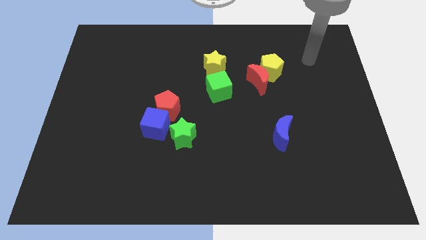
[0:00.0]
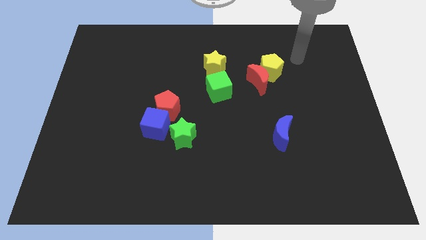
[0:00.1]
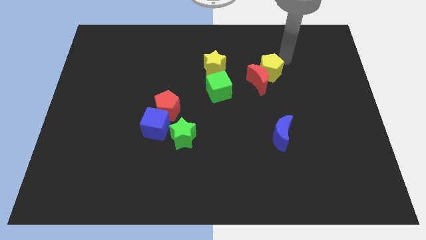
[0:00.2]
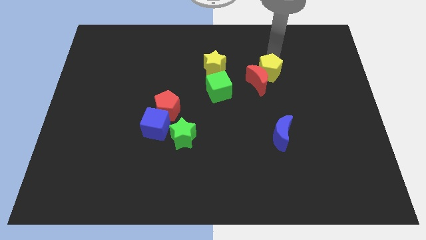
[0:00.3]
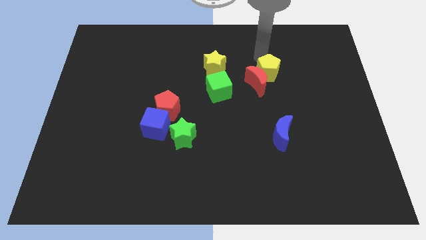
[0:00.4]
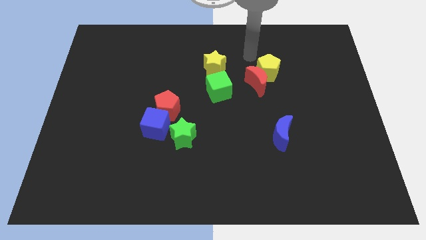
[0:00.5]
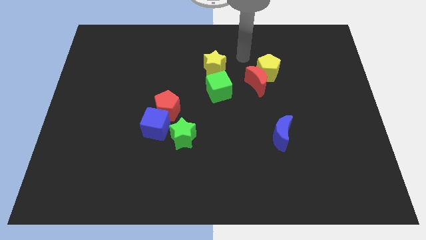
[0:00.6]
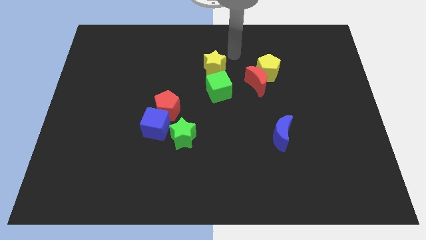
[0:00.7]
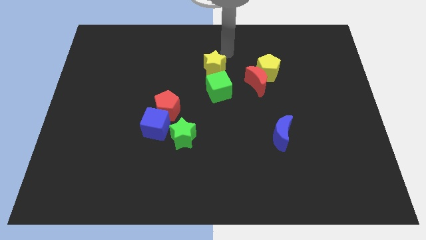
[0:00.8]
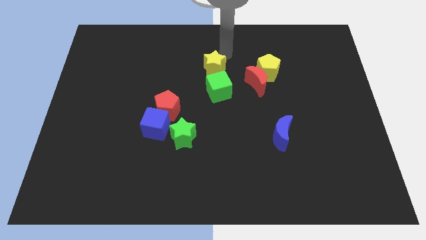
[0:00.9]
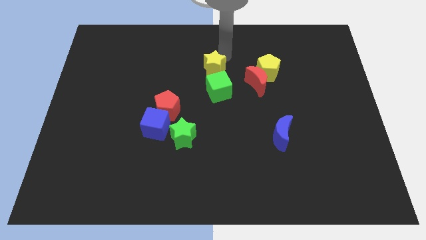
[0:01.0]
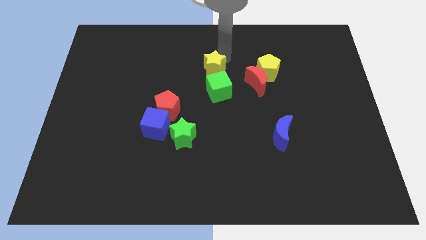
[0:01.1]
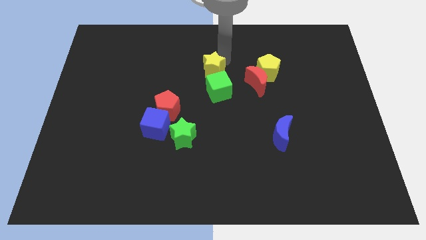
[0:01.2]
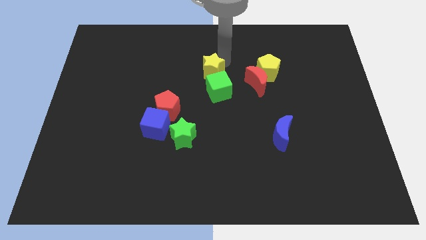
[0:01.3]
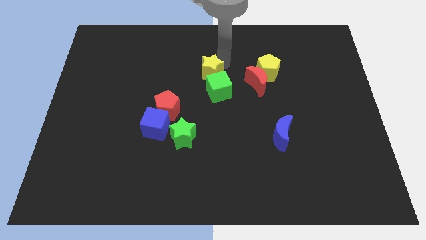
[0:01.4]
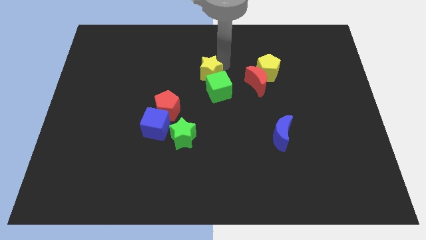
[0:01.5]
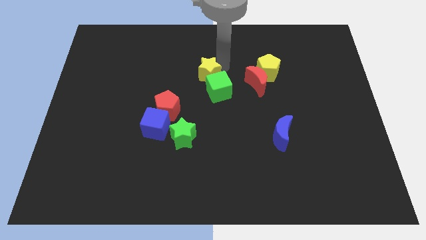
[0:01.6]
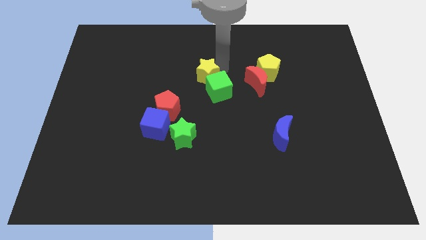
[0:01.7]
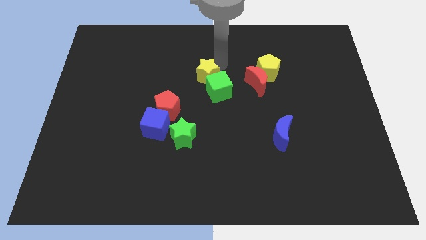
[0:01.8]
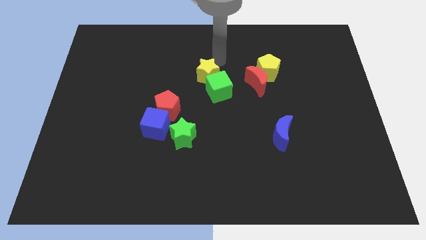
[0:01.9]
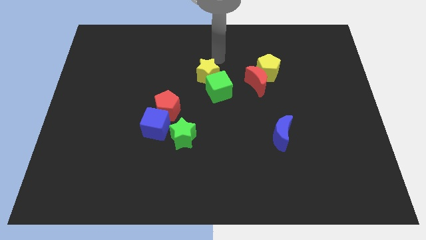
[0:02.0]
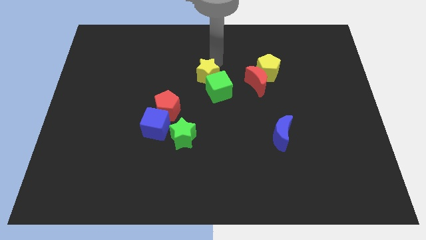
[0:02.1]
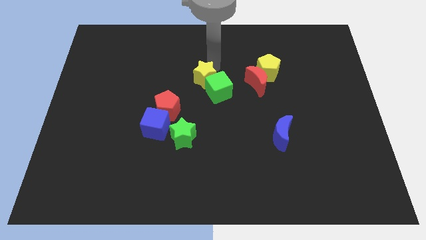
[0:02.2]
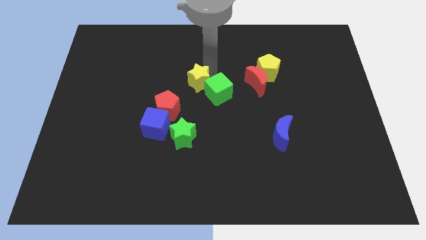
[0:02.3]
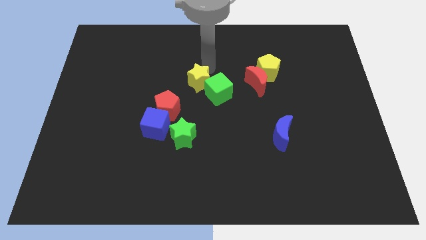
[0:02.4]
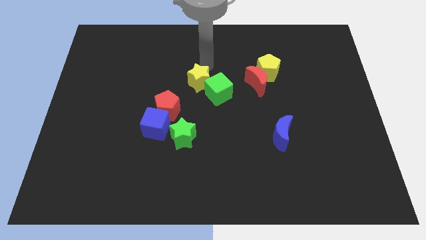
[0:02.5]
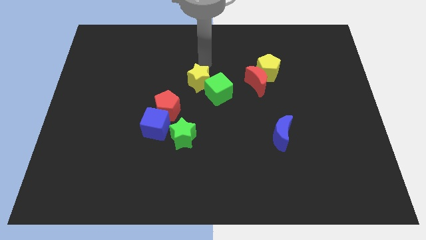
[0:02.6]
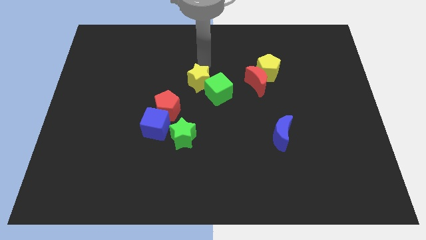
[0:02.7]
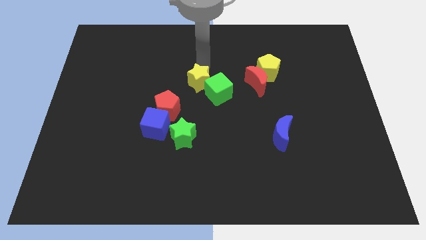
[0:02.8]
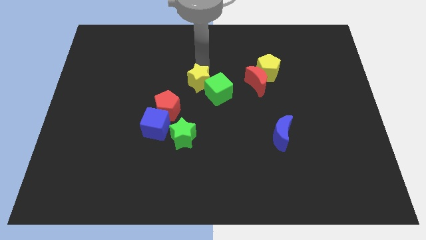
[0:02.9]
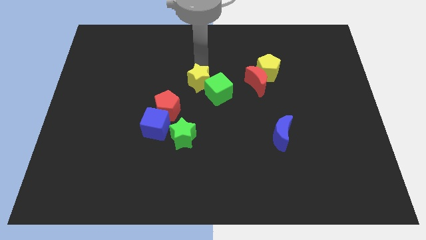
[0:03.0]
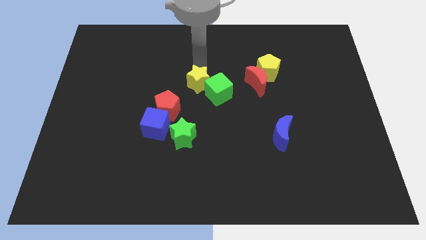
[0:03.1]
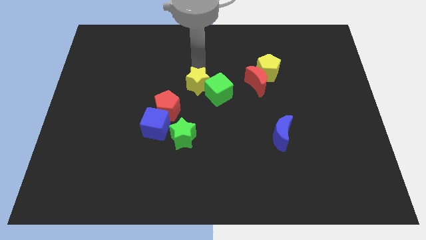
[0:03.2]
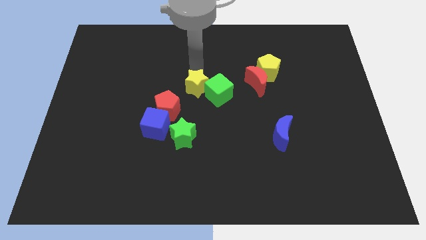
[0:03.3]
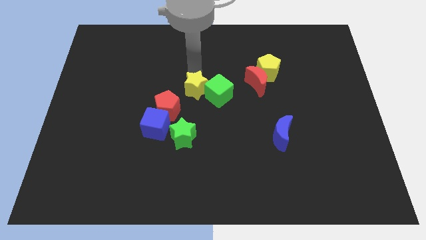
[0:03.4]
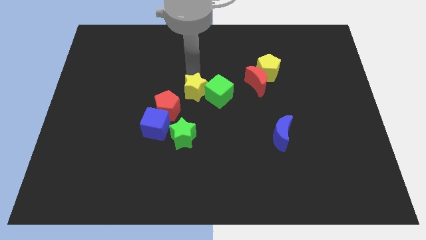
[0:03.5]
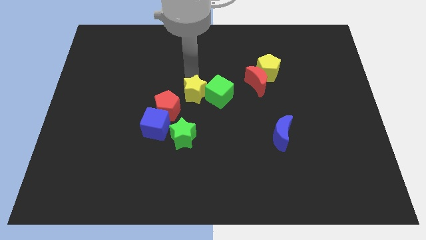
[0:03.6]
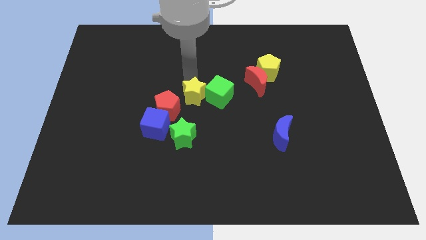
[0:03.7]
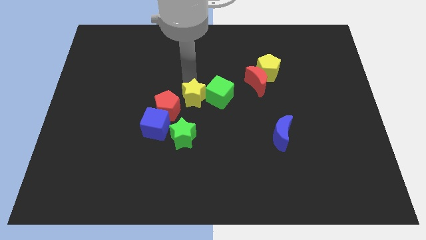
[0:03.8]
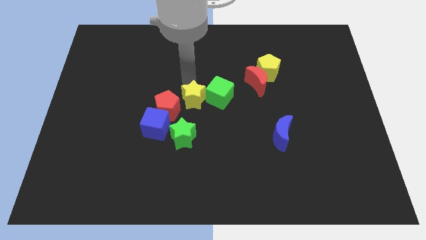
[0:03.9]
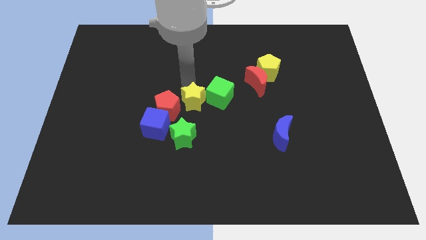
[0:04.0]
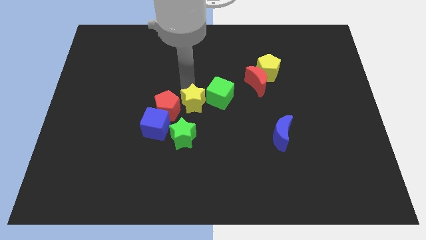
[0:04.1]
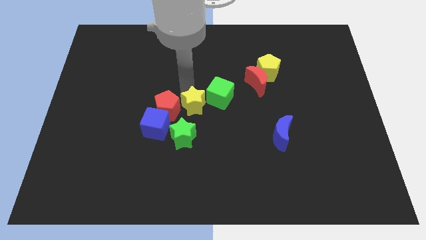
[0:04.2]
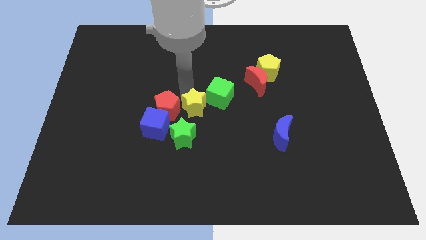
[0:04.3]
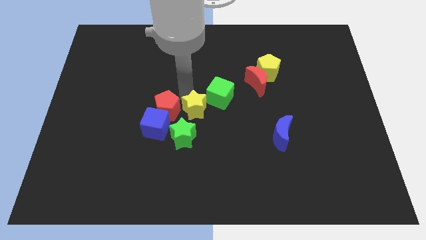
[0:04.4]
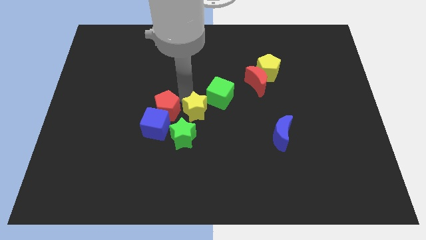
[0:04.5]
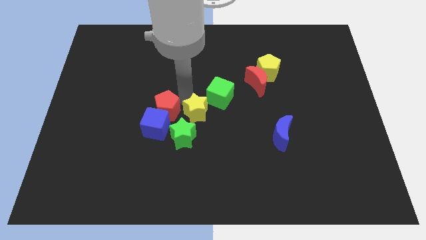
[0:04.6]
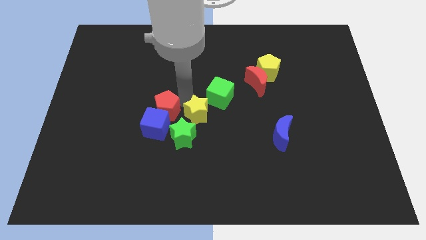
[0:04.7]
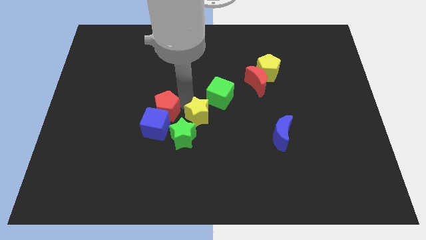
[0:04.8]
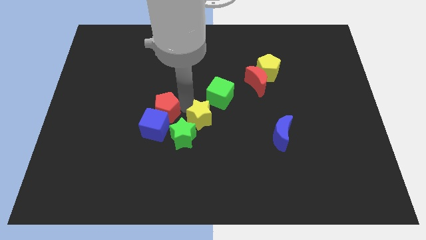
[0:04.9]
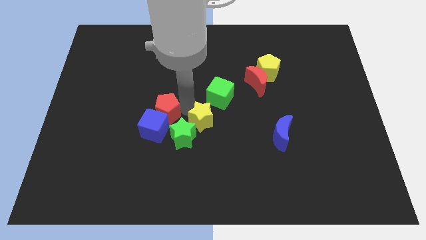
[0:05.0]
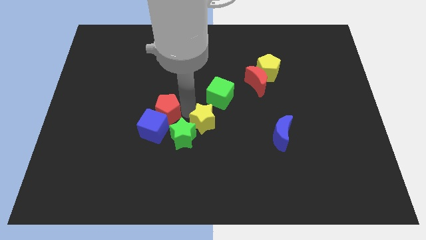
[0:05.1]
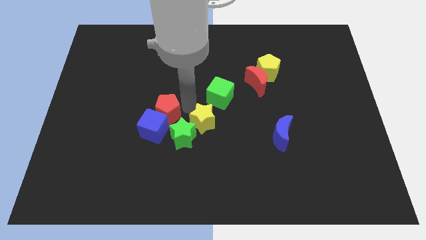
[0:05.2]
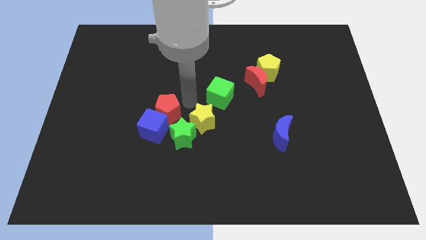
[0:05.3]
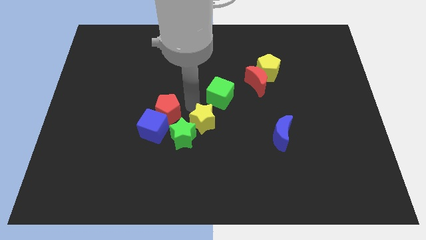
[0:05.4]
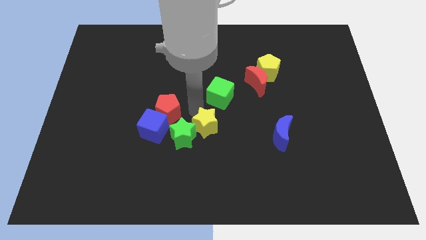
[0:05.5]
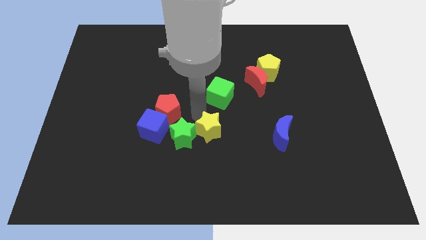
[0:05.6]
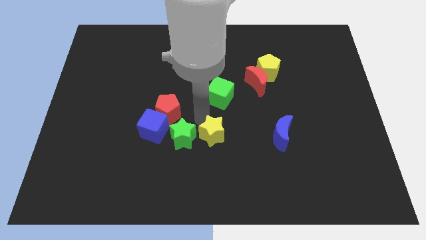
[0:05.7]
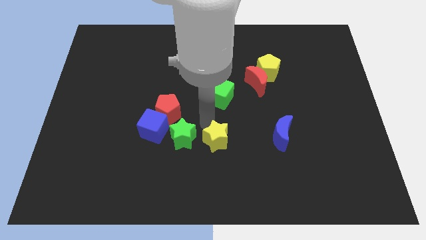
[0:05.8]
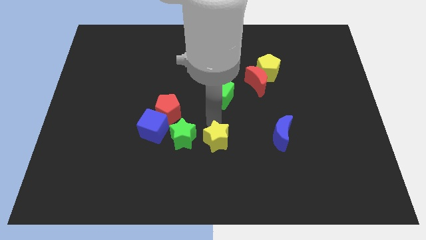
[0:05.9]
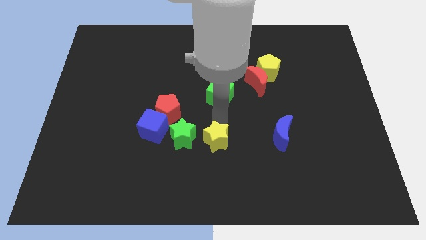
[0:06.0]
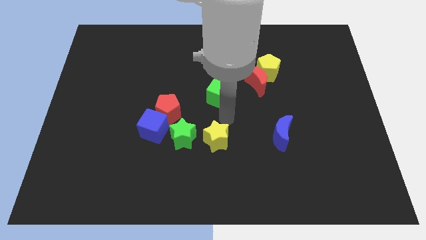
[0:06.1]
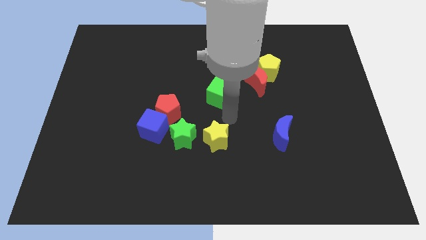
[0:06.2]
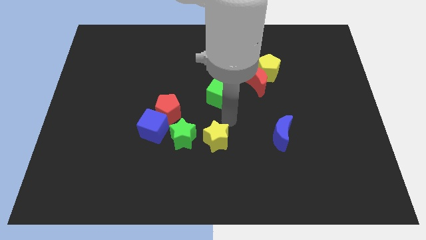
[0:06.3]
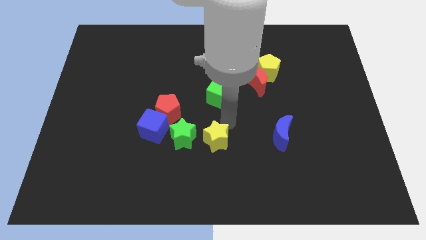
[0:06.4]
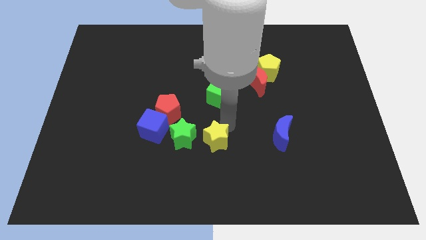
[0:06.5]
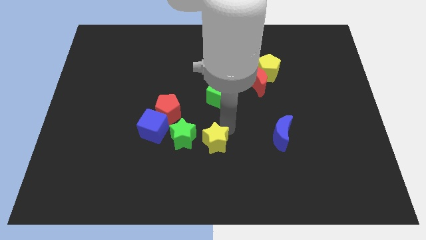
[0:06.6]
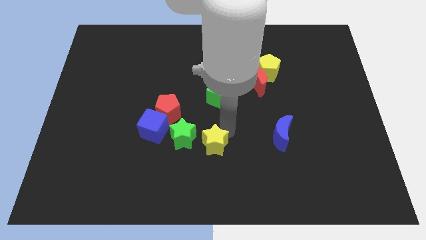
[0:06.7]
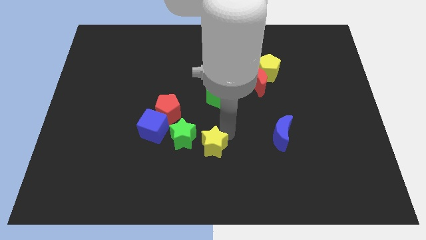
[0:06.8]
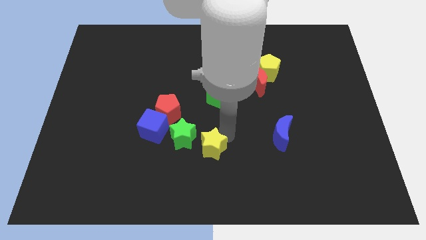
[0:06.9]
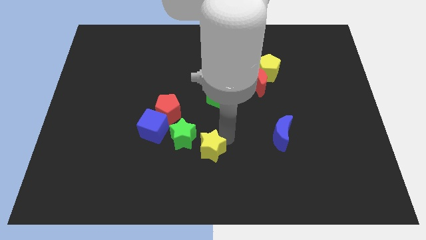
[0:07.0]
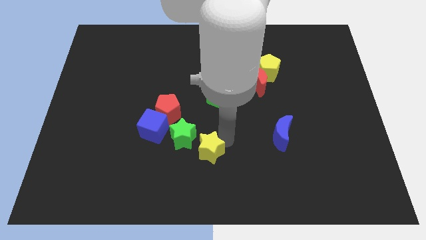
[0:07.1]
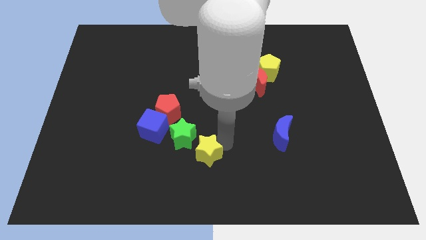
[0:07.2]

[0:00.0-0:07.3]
put the yellow star to the bottom side

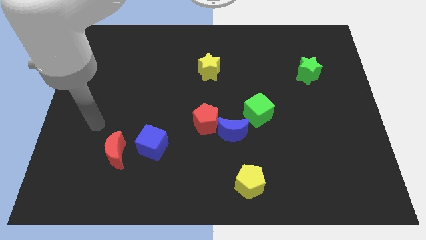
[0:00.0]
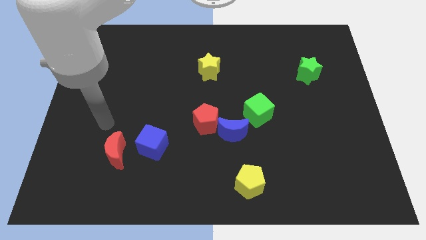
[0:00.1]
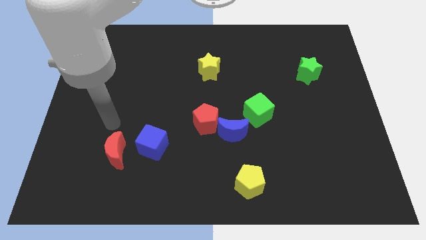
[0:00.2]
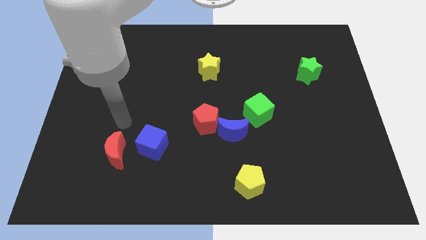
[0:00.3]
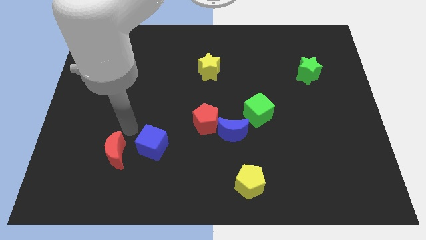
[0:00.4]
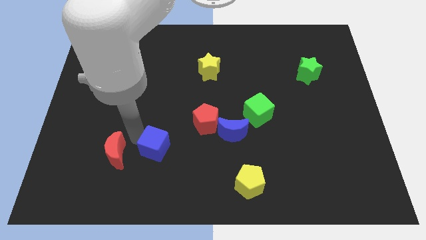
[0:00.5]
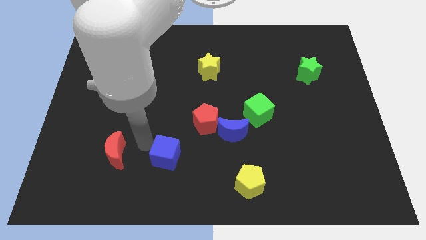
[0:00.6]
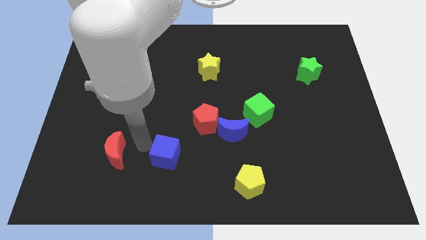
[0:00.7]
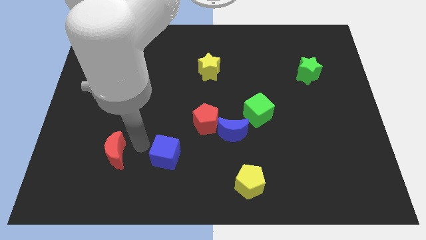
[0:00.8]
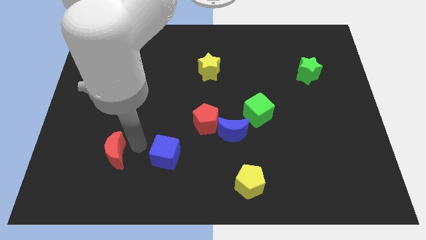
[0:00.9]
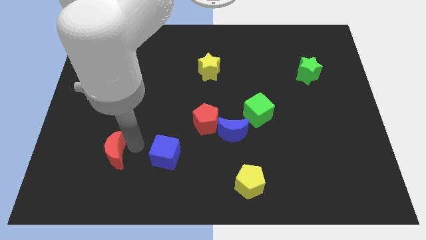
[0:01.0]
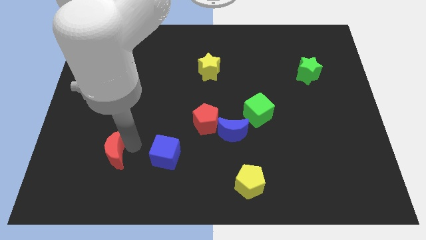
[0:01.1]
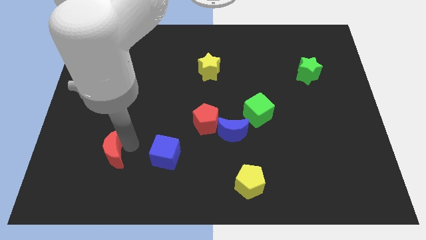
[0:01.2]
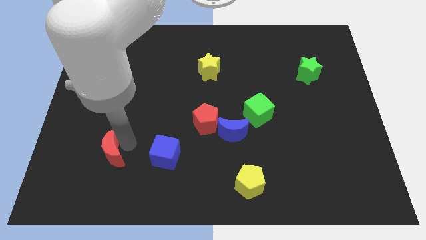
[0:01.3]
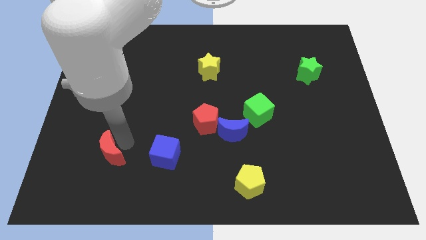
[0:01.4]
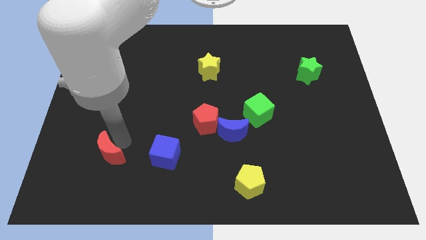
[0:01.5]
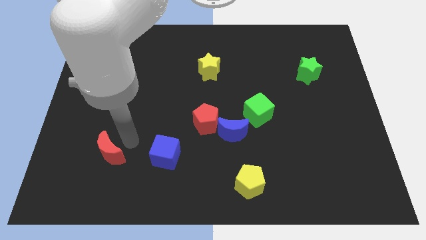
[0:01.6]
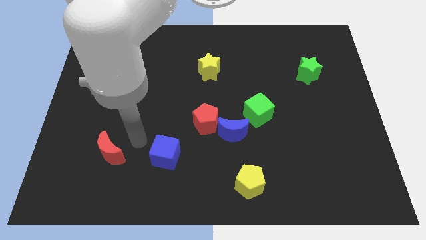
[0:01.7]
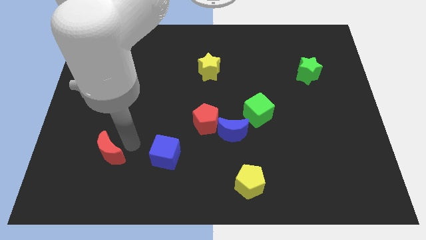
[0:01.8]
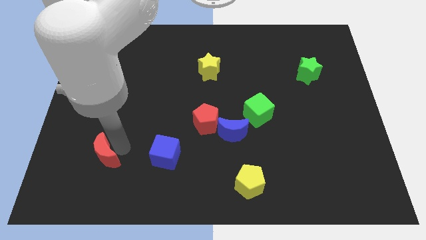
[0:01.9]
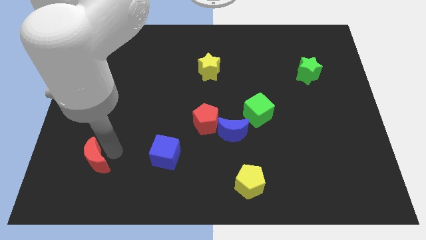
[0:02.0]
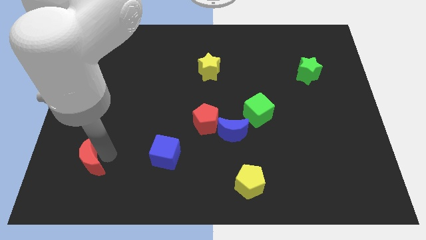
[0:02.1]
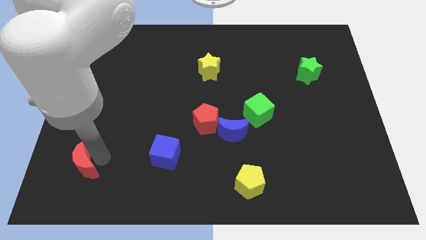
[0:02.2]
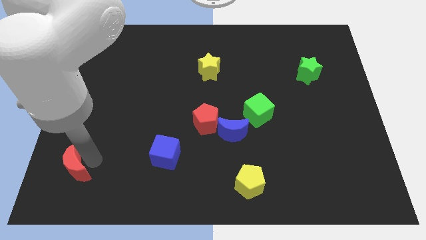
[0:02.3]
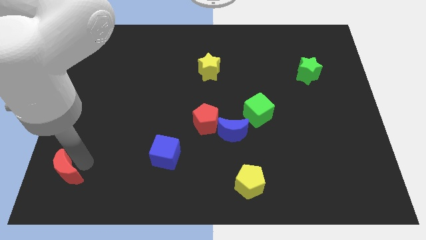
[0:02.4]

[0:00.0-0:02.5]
push the red moon to the bottom left corner
